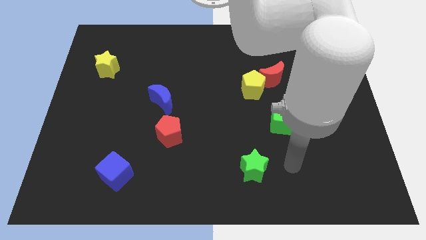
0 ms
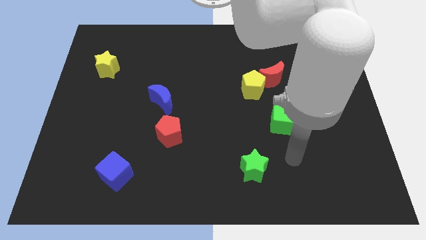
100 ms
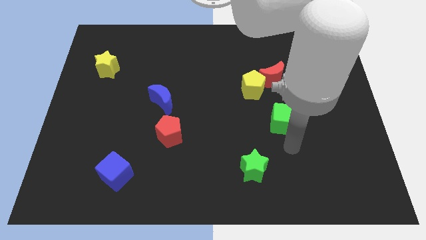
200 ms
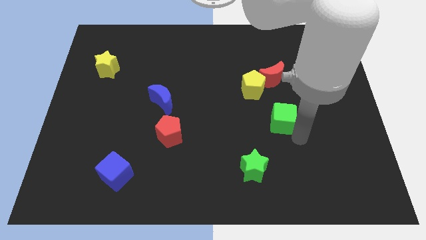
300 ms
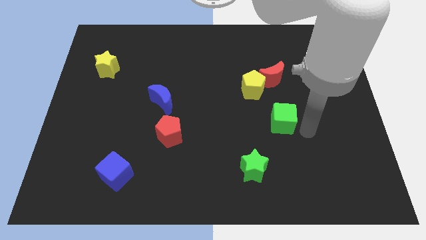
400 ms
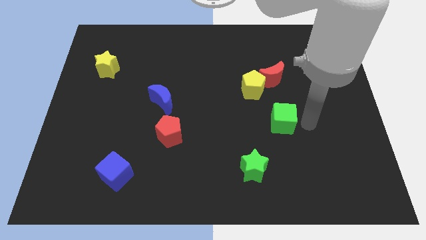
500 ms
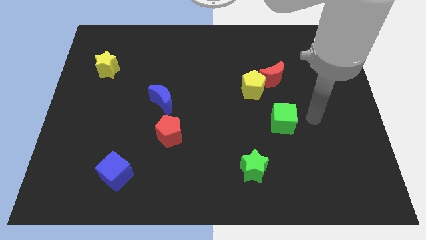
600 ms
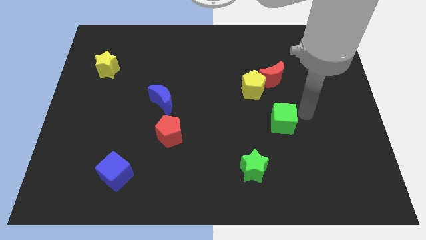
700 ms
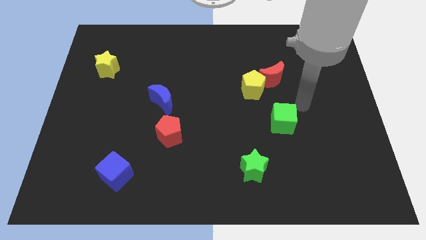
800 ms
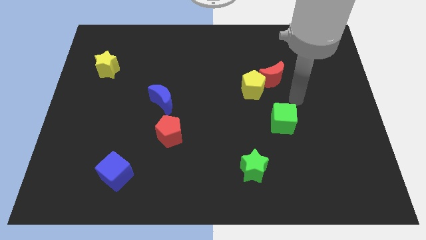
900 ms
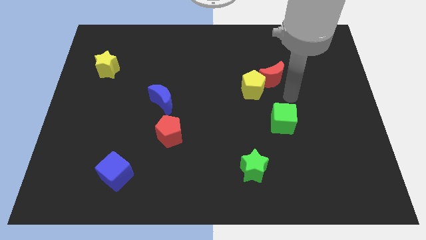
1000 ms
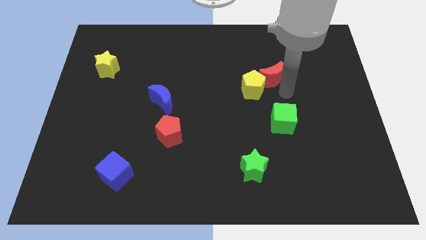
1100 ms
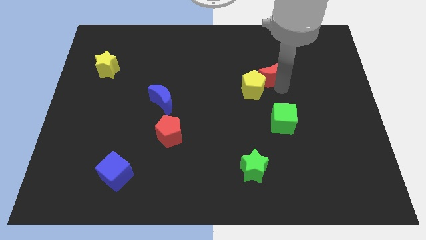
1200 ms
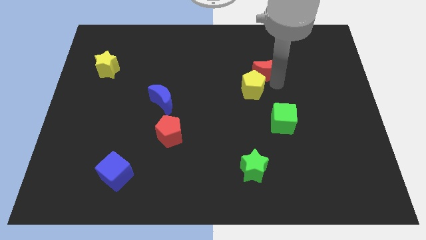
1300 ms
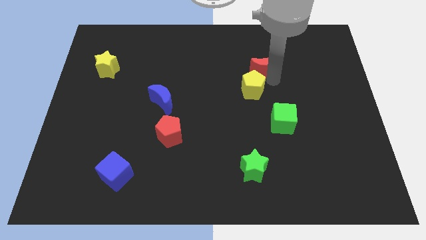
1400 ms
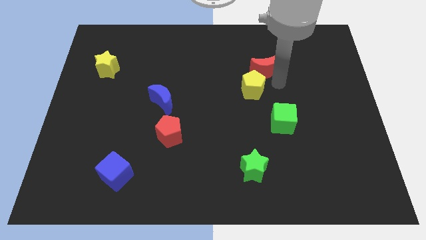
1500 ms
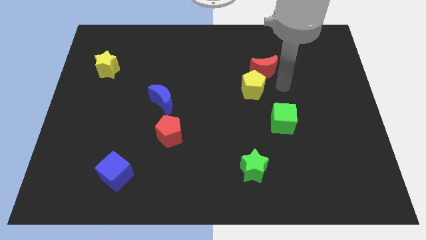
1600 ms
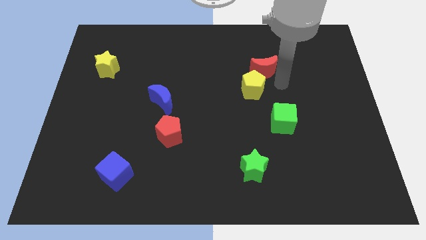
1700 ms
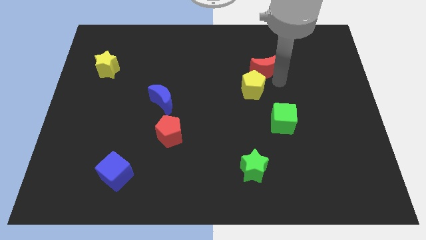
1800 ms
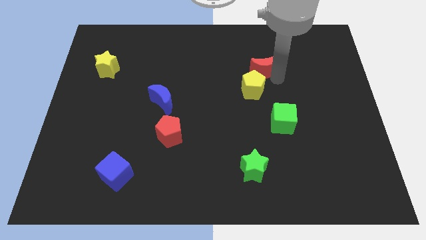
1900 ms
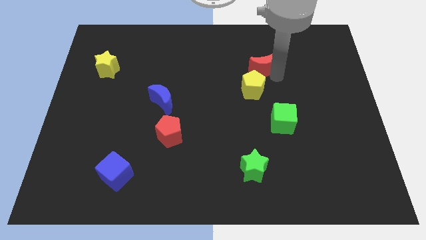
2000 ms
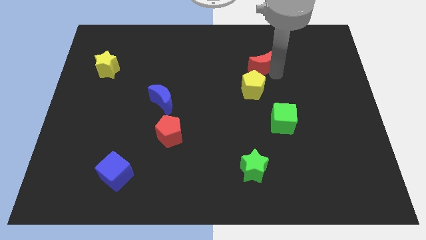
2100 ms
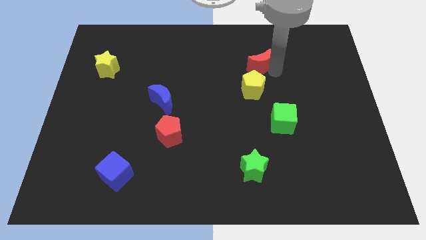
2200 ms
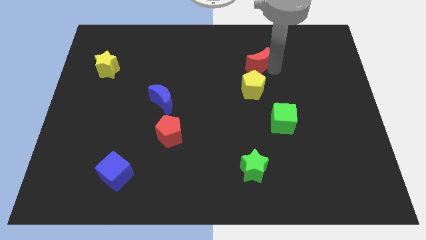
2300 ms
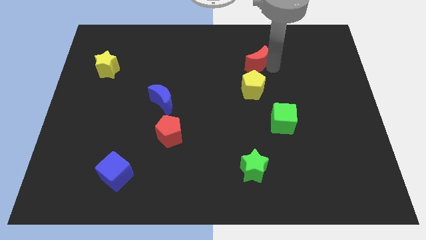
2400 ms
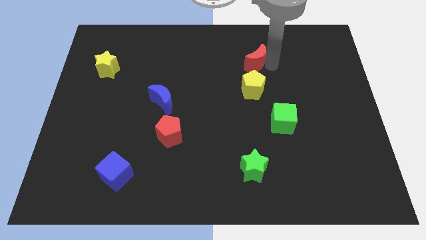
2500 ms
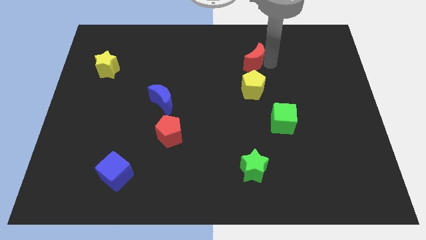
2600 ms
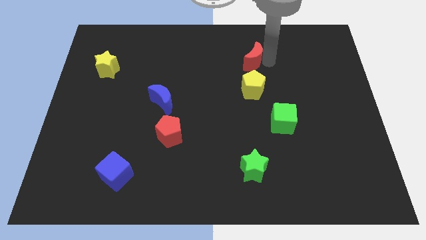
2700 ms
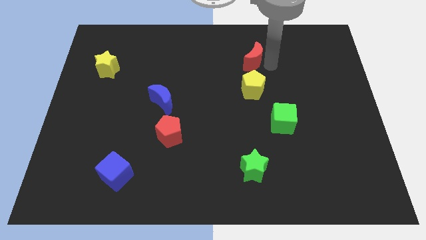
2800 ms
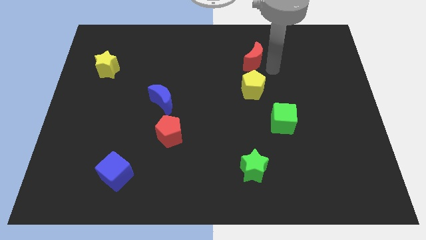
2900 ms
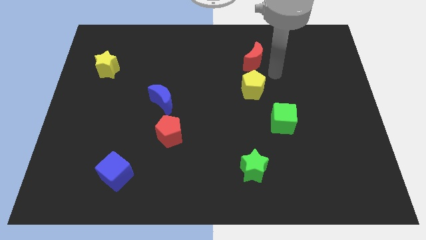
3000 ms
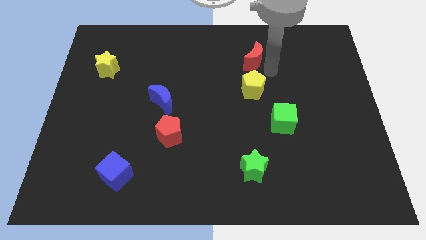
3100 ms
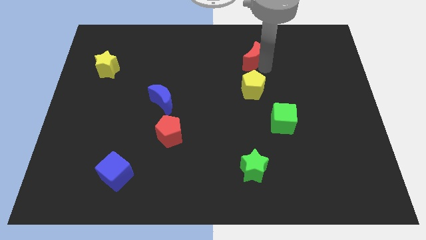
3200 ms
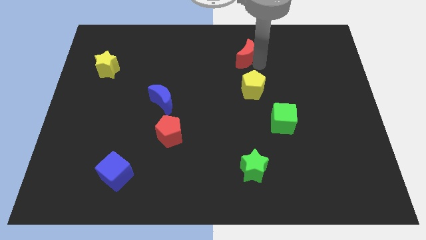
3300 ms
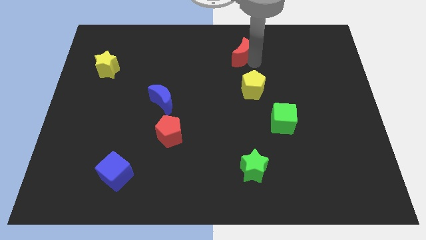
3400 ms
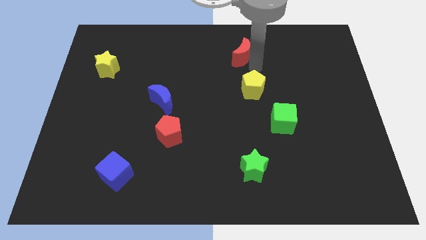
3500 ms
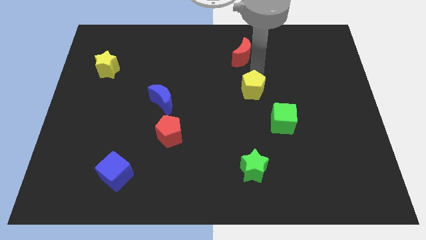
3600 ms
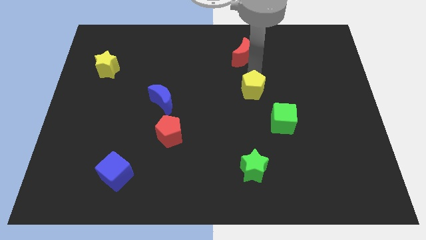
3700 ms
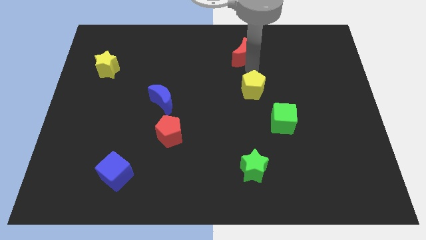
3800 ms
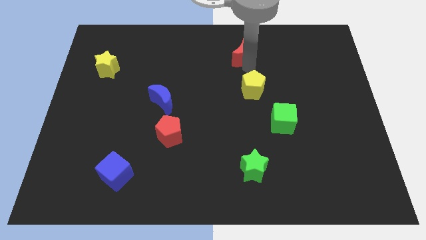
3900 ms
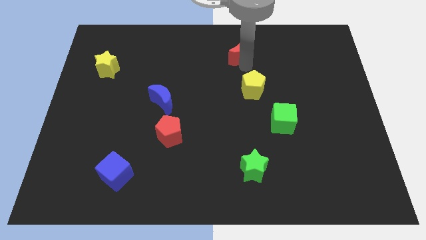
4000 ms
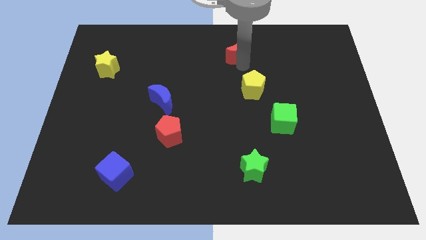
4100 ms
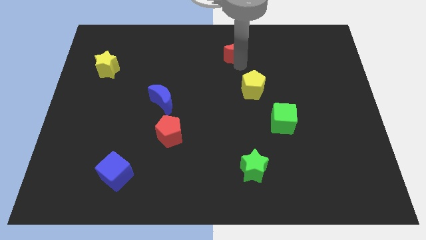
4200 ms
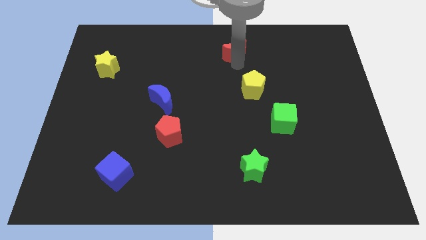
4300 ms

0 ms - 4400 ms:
push the red moon to the top side

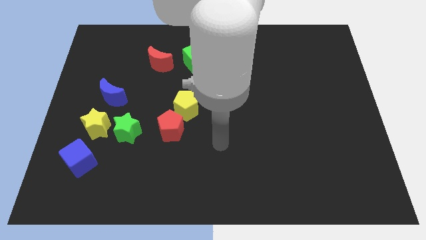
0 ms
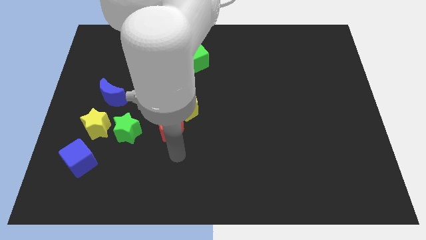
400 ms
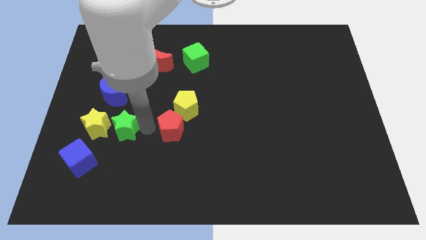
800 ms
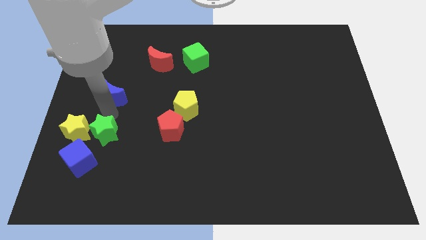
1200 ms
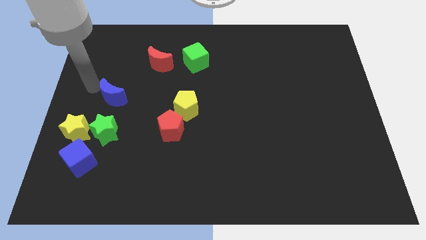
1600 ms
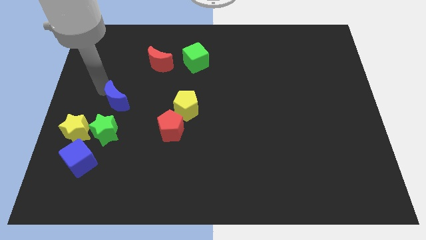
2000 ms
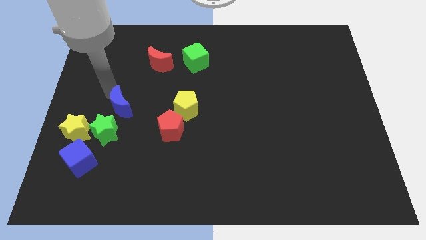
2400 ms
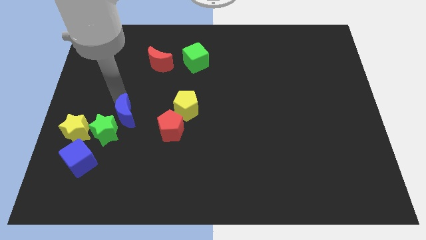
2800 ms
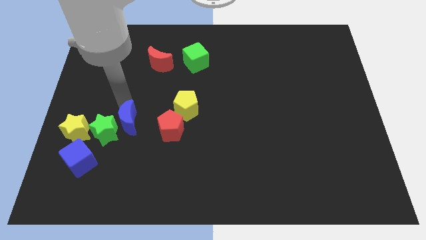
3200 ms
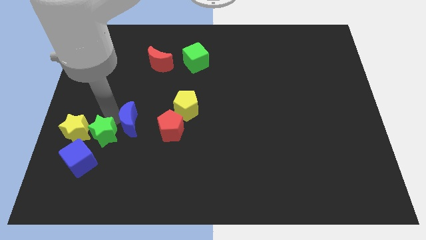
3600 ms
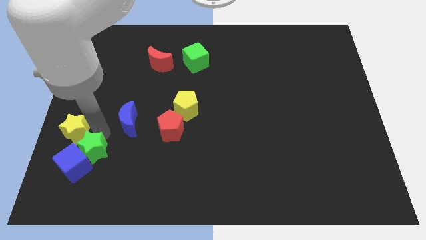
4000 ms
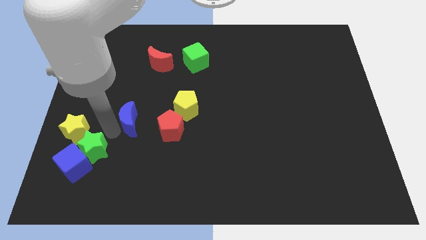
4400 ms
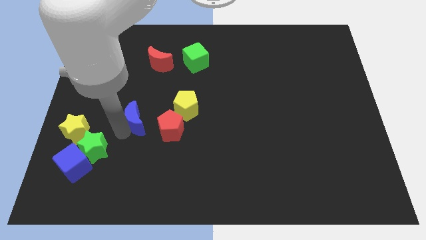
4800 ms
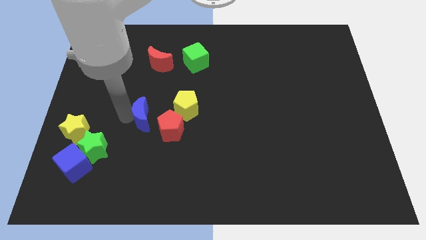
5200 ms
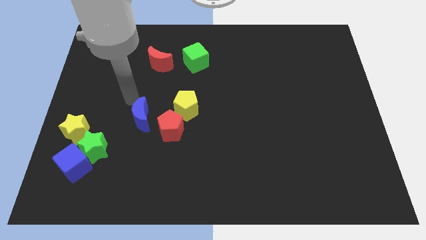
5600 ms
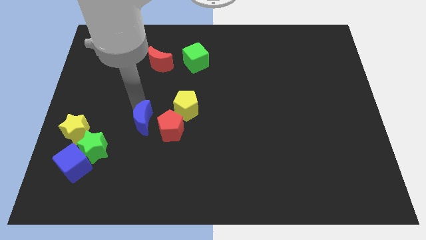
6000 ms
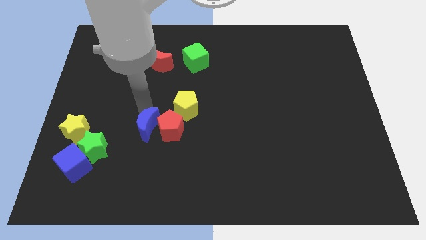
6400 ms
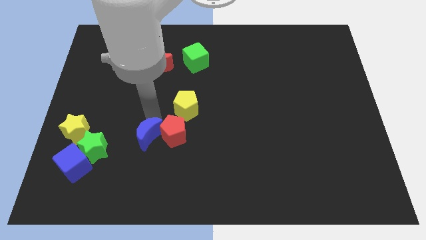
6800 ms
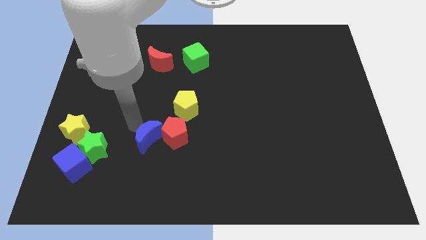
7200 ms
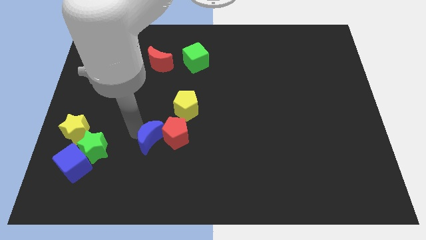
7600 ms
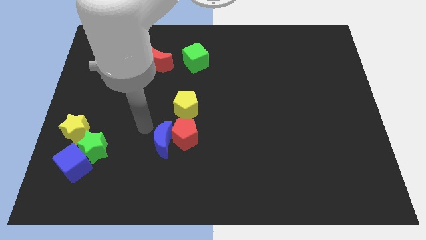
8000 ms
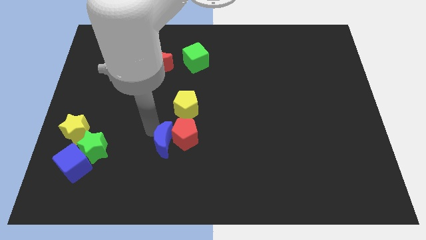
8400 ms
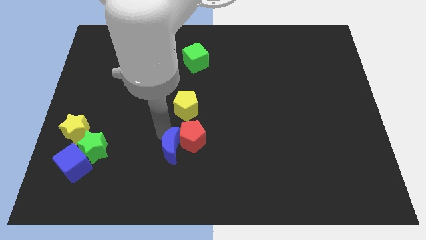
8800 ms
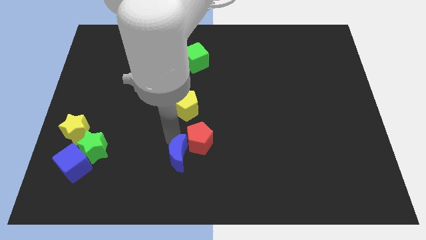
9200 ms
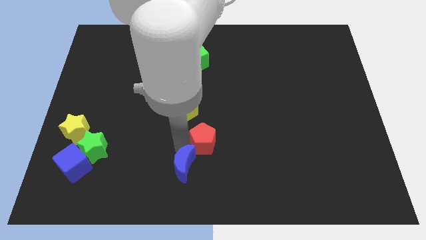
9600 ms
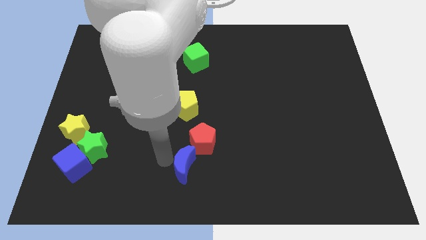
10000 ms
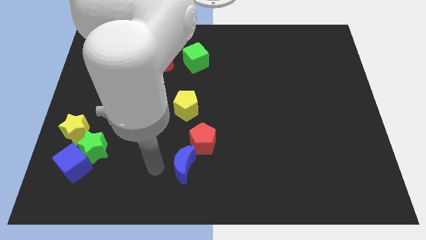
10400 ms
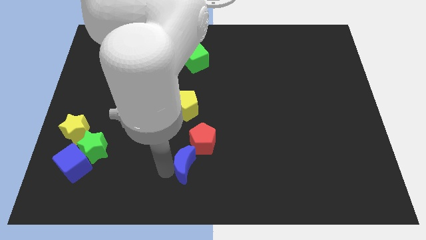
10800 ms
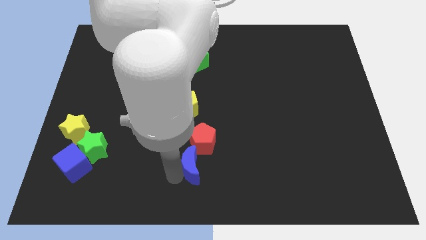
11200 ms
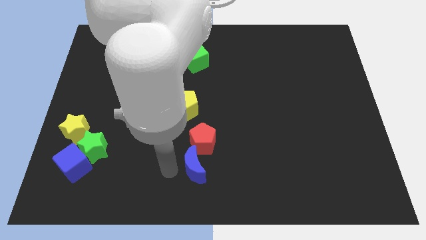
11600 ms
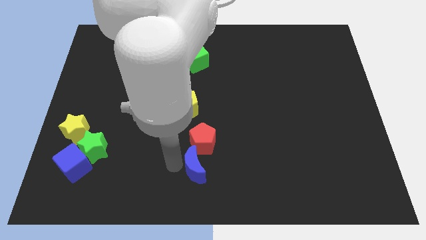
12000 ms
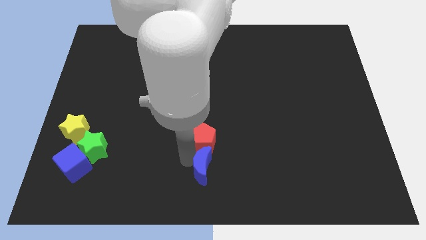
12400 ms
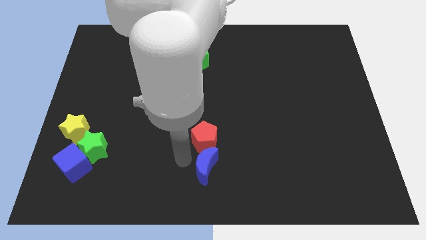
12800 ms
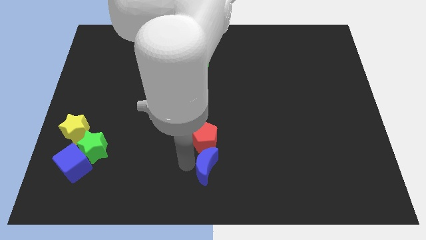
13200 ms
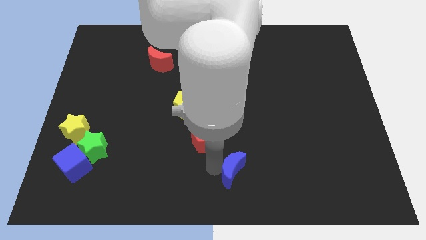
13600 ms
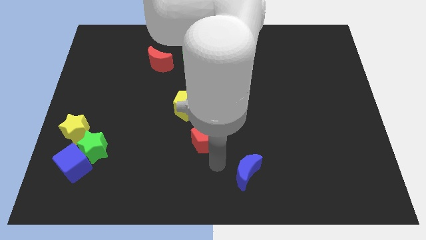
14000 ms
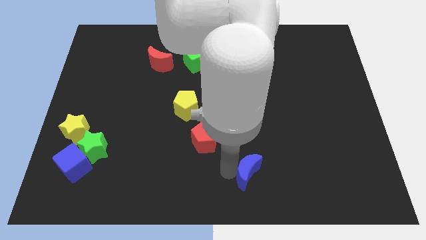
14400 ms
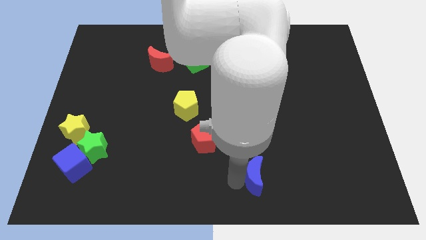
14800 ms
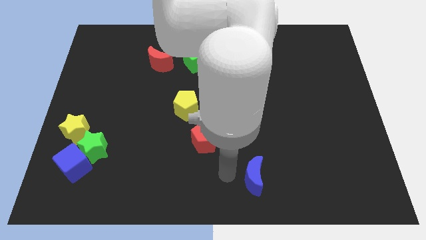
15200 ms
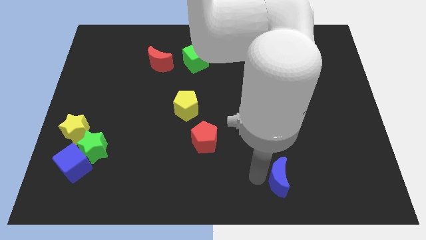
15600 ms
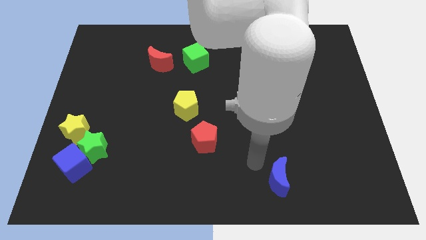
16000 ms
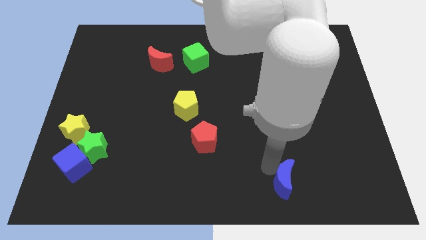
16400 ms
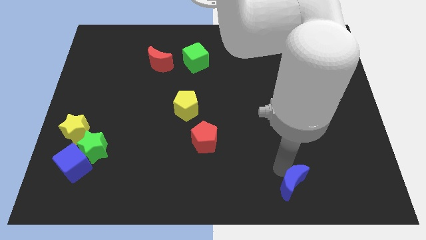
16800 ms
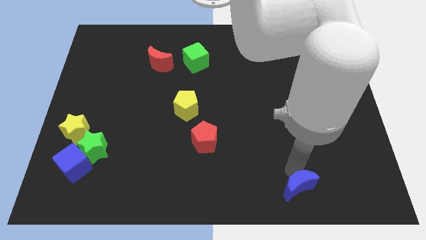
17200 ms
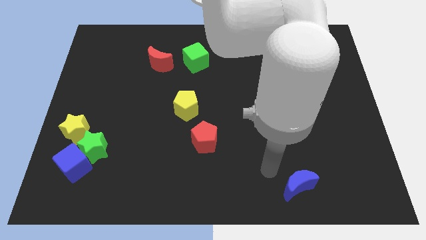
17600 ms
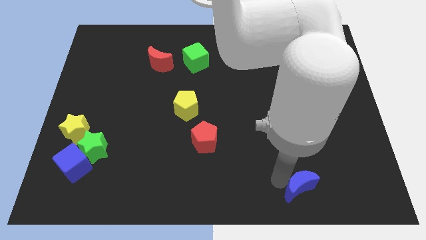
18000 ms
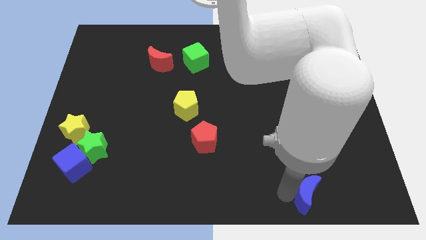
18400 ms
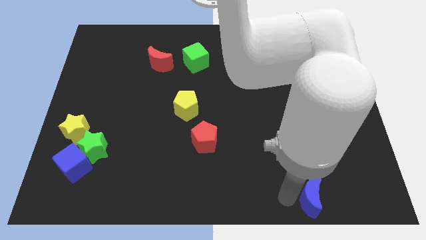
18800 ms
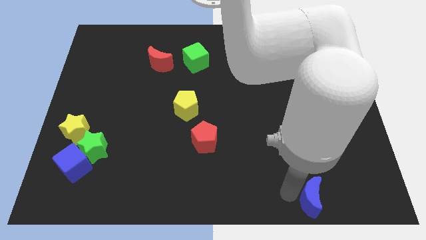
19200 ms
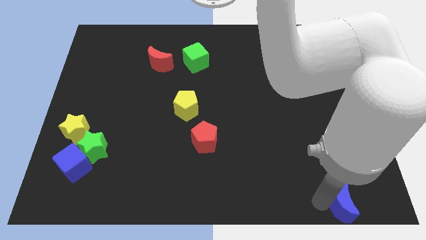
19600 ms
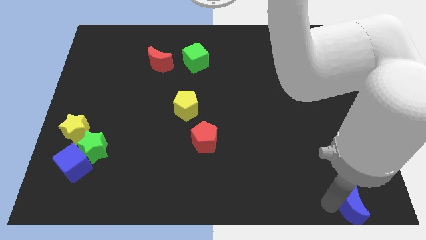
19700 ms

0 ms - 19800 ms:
move the blue moon to the bottom right corner
